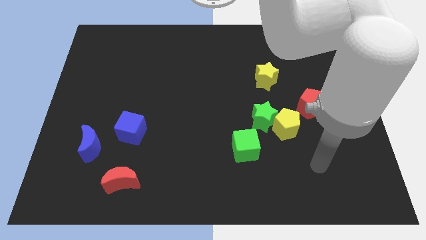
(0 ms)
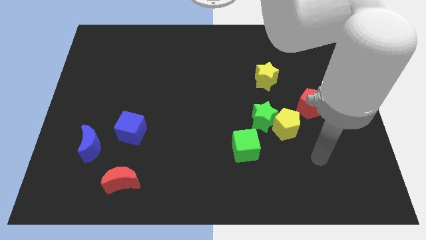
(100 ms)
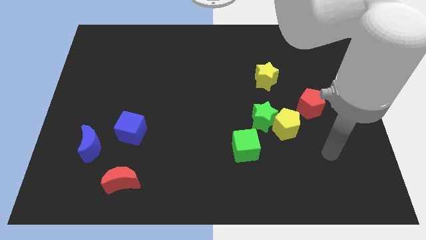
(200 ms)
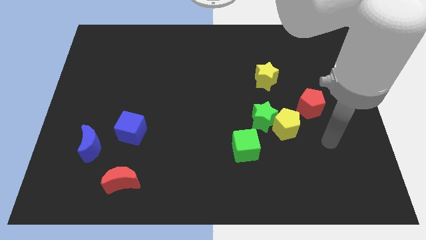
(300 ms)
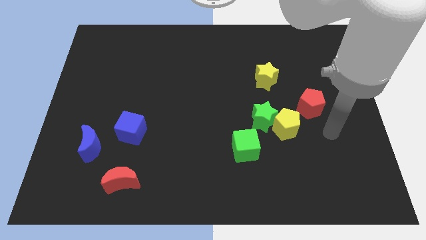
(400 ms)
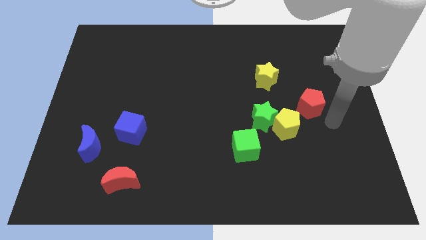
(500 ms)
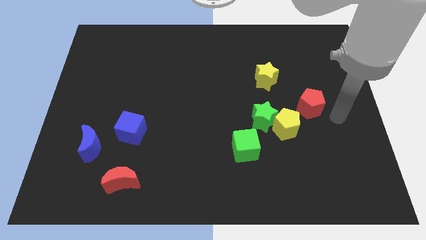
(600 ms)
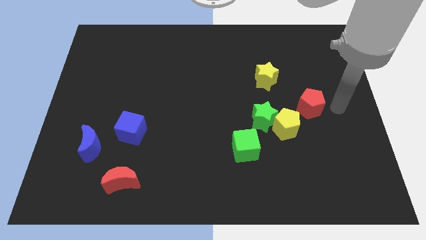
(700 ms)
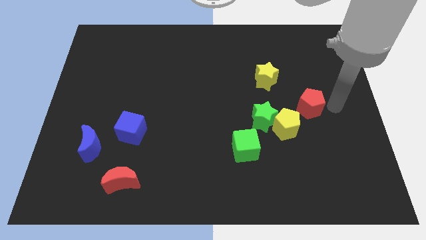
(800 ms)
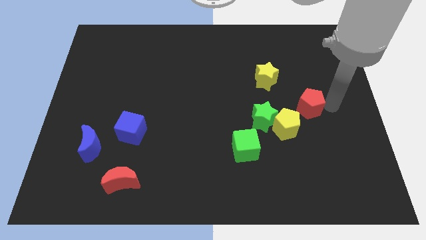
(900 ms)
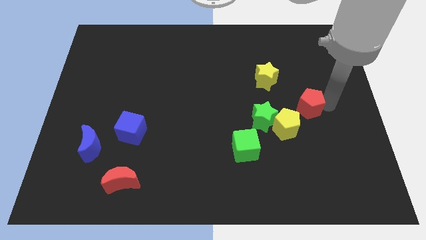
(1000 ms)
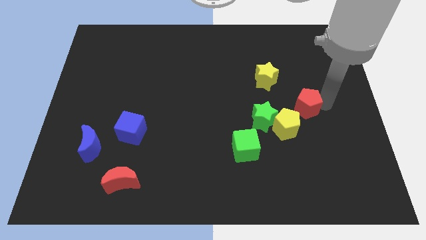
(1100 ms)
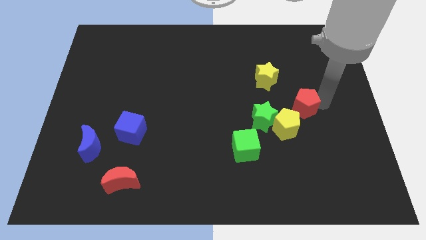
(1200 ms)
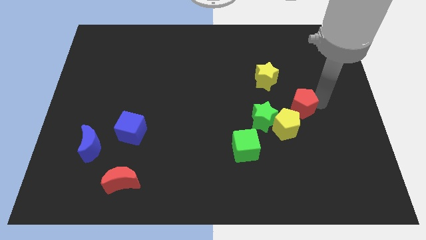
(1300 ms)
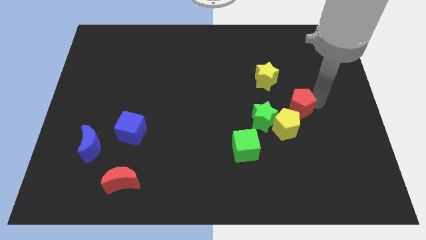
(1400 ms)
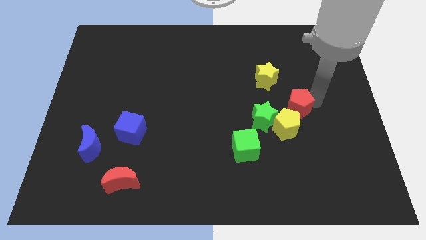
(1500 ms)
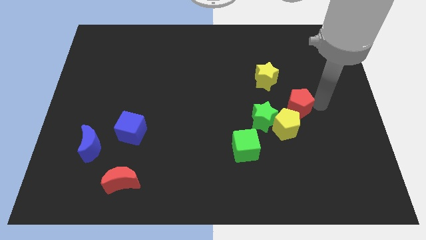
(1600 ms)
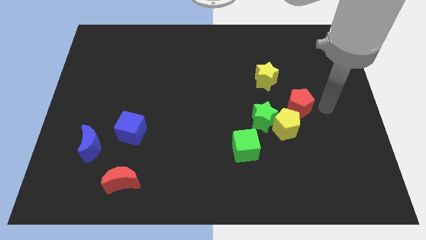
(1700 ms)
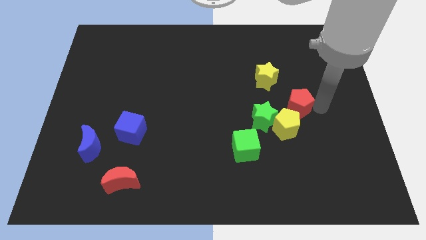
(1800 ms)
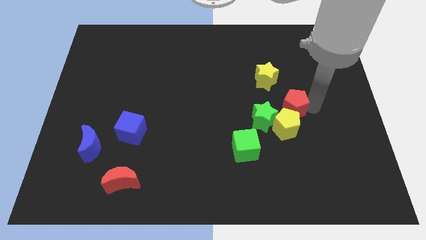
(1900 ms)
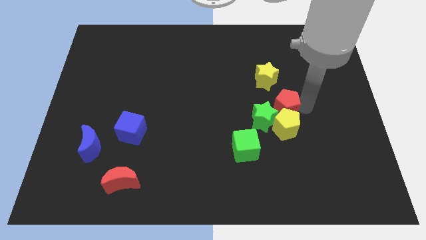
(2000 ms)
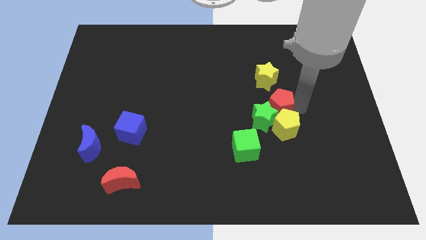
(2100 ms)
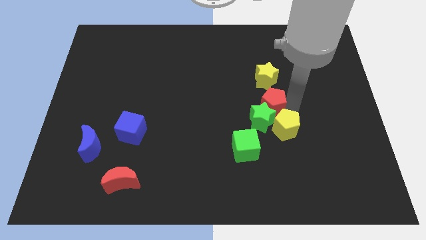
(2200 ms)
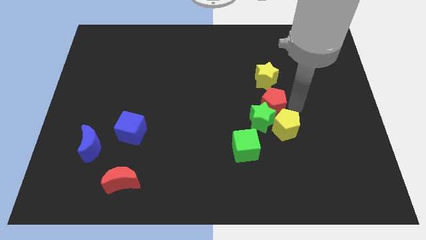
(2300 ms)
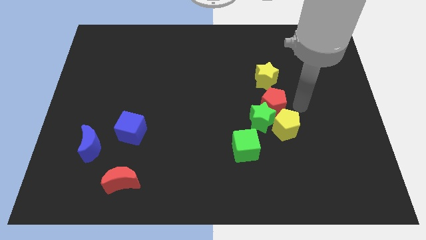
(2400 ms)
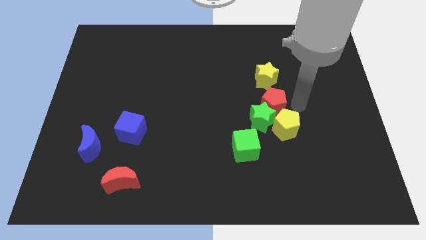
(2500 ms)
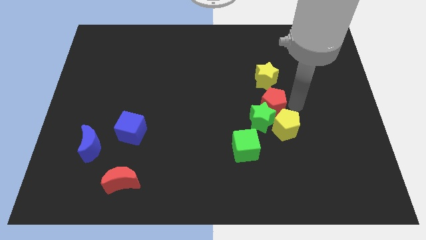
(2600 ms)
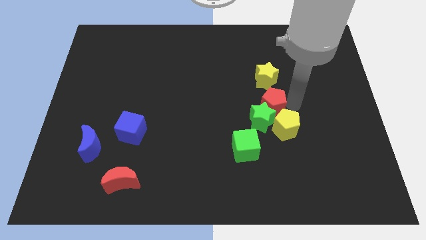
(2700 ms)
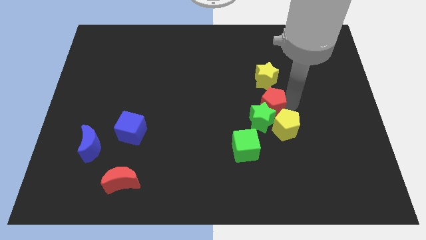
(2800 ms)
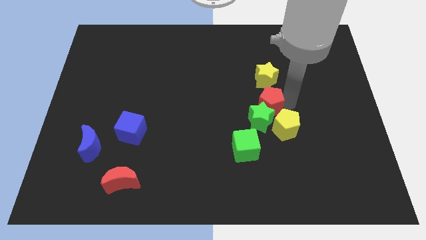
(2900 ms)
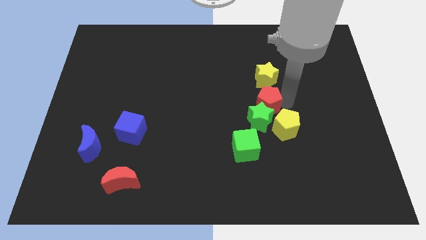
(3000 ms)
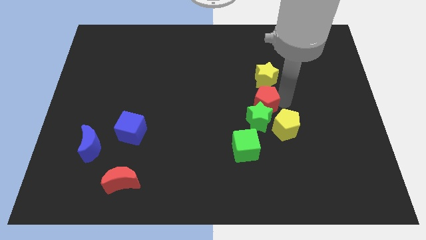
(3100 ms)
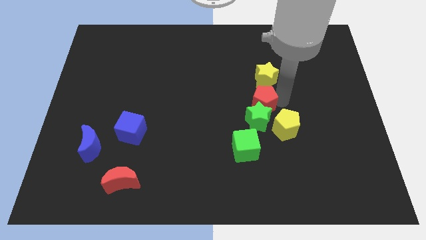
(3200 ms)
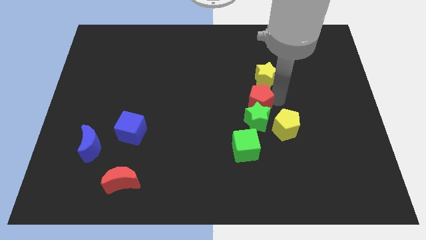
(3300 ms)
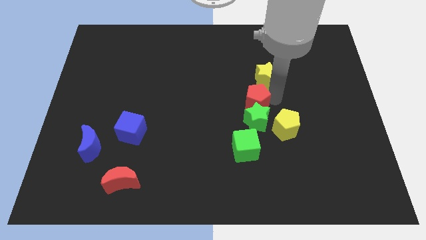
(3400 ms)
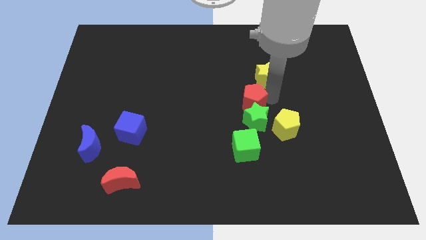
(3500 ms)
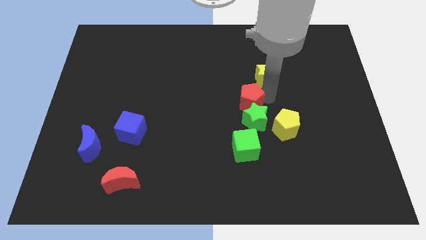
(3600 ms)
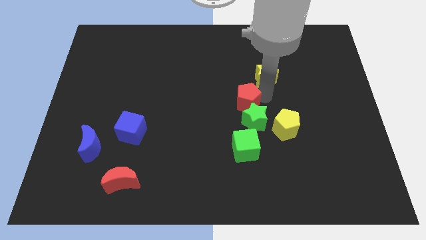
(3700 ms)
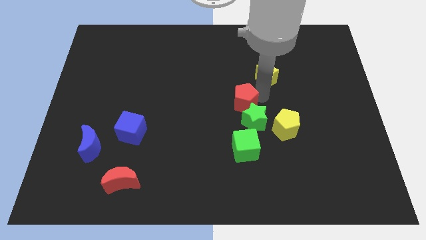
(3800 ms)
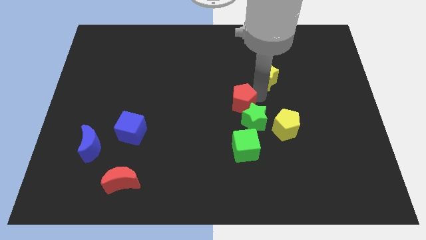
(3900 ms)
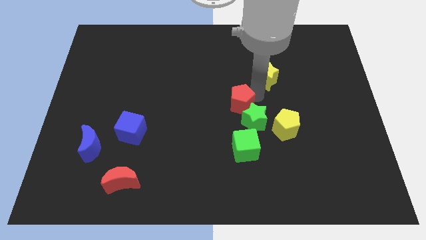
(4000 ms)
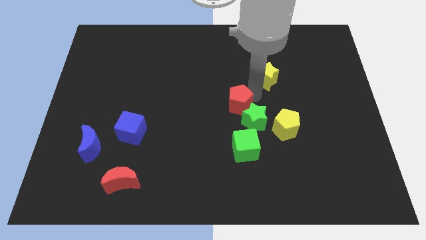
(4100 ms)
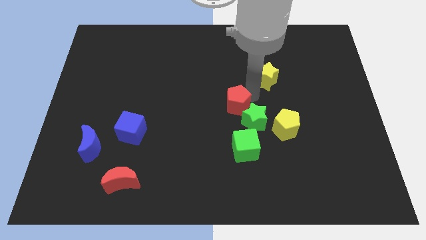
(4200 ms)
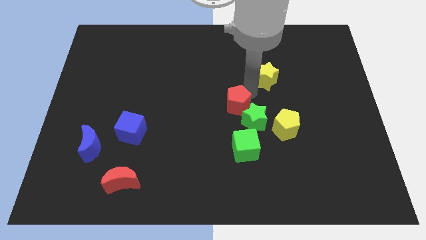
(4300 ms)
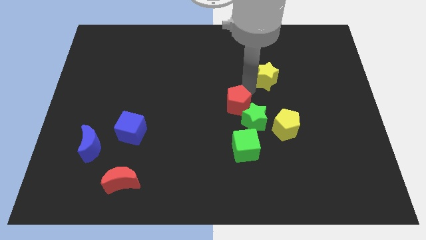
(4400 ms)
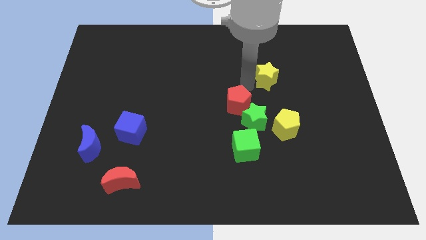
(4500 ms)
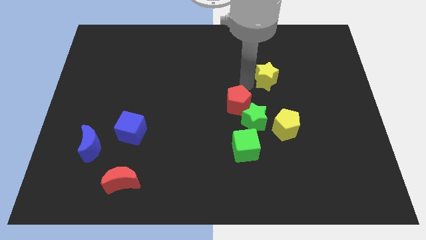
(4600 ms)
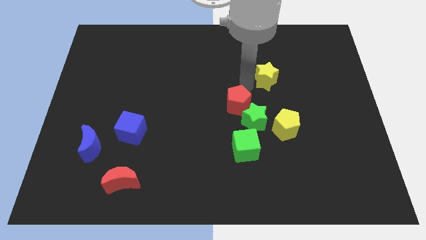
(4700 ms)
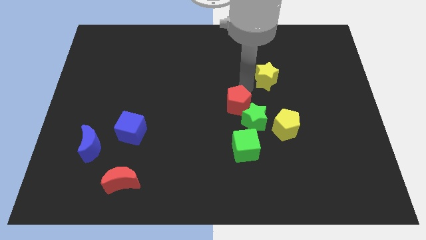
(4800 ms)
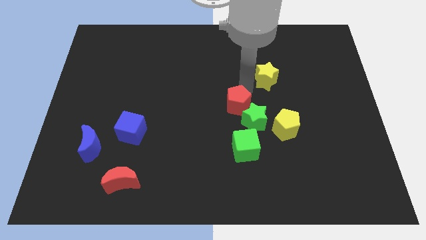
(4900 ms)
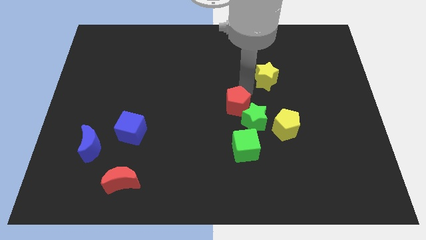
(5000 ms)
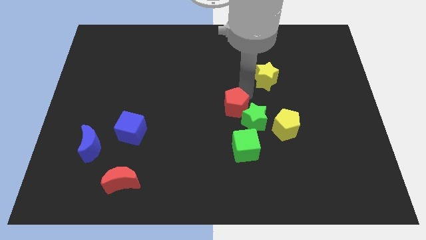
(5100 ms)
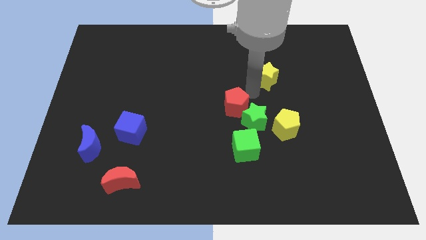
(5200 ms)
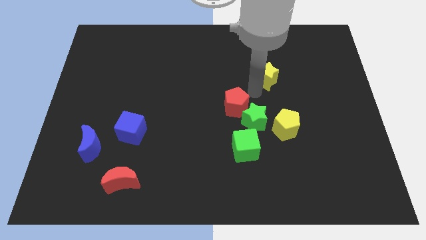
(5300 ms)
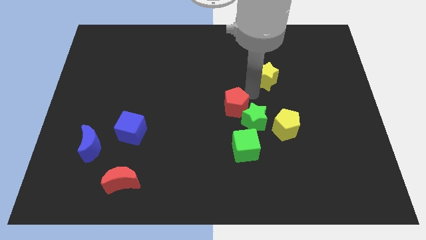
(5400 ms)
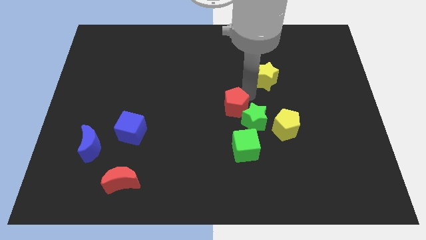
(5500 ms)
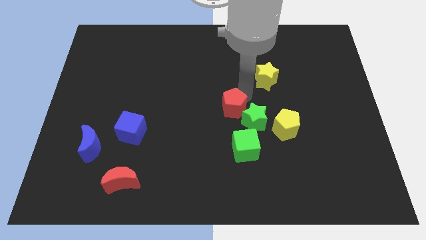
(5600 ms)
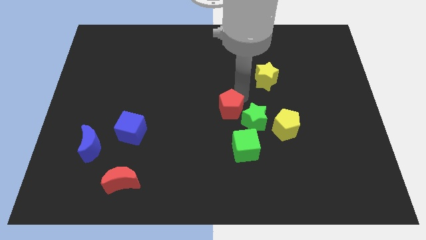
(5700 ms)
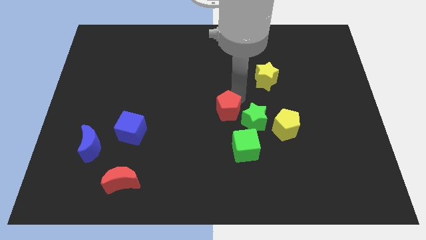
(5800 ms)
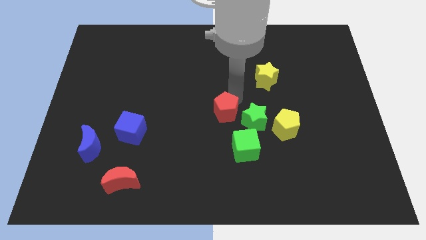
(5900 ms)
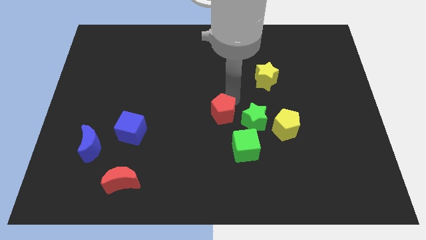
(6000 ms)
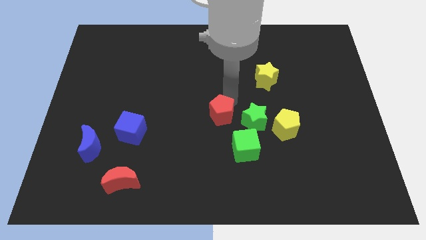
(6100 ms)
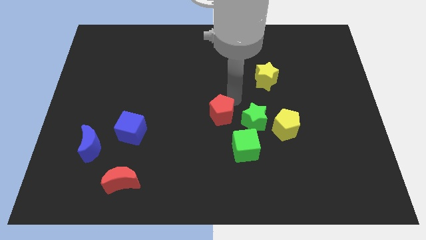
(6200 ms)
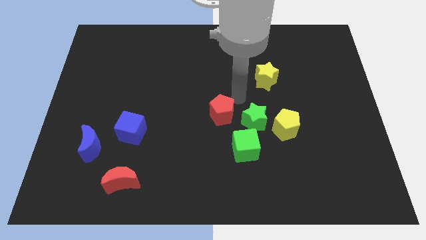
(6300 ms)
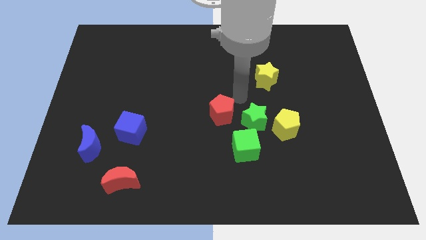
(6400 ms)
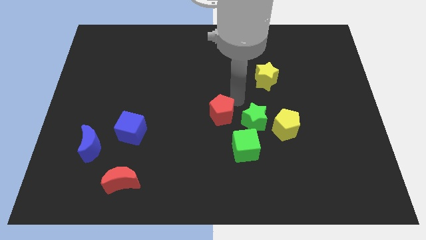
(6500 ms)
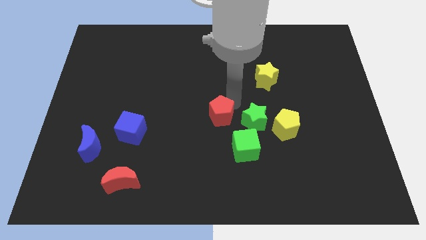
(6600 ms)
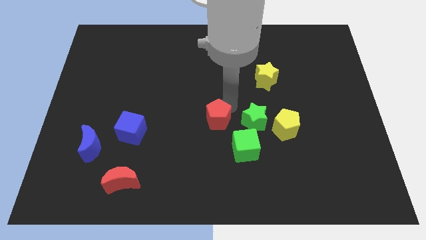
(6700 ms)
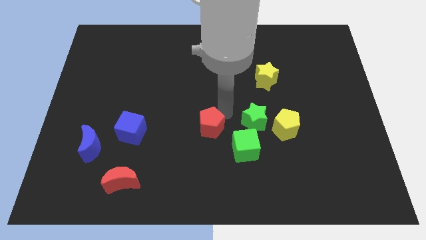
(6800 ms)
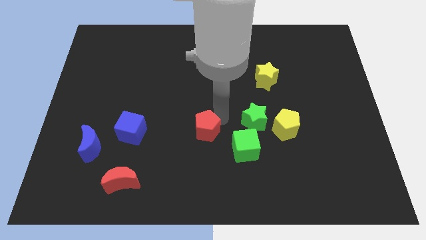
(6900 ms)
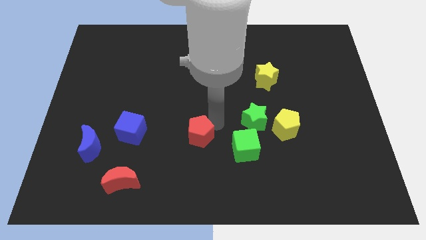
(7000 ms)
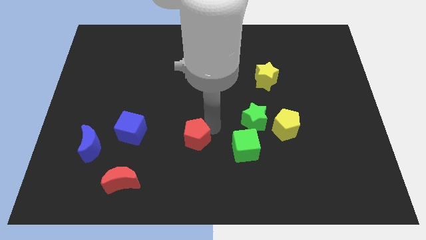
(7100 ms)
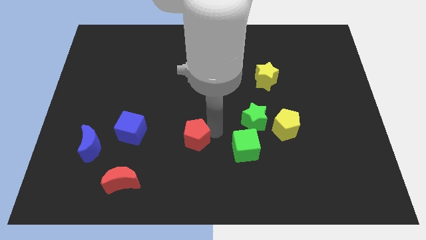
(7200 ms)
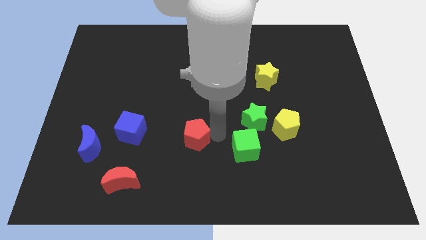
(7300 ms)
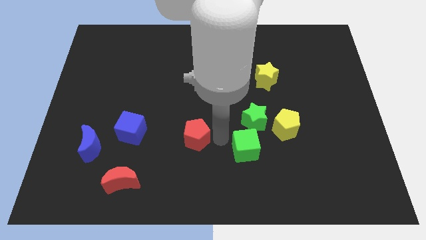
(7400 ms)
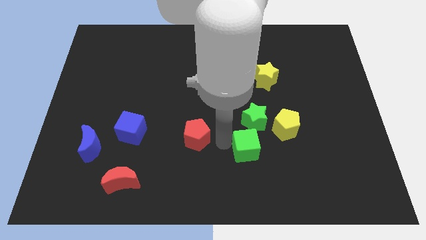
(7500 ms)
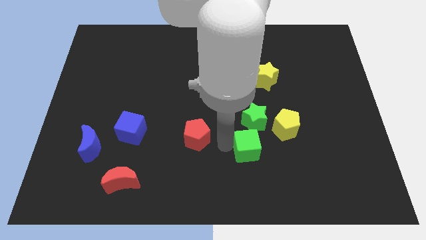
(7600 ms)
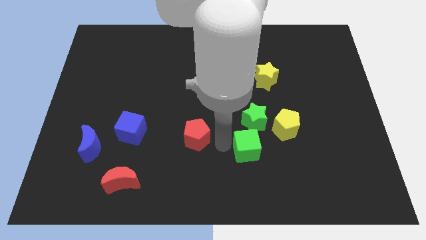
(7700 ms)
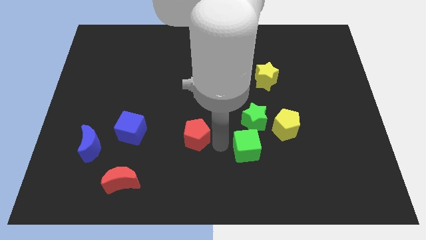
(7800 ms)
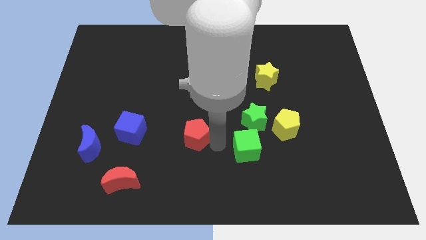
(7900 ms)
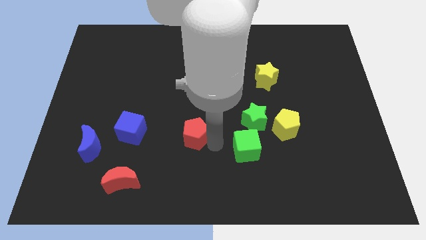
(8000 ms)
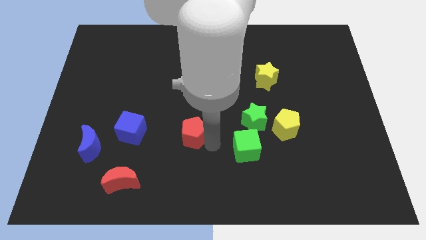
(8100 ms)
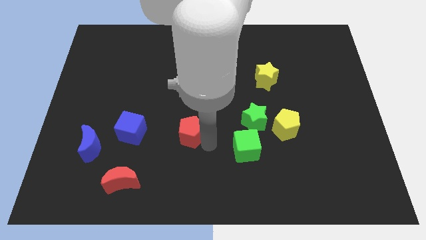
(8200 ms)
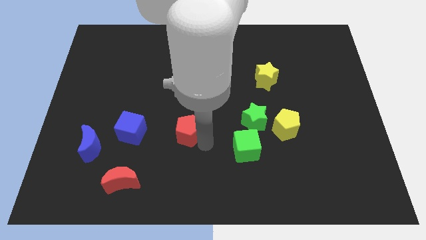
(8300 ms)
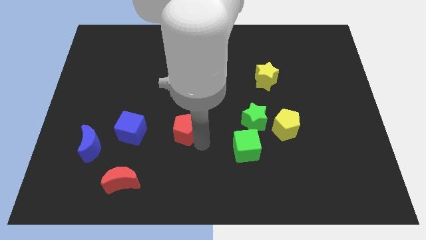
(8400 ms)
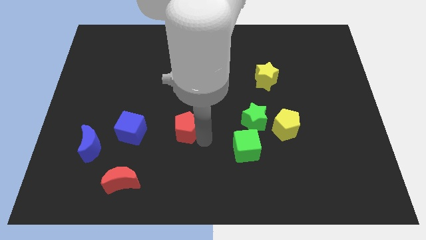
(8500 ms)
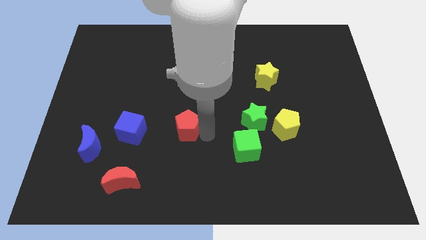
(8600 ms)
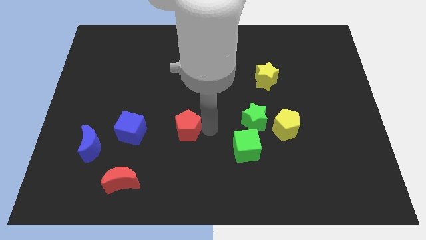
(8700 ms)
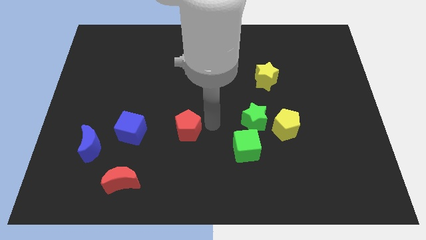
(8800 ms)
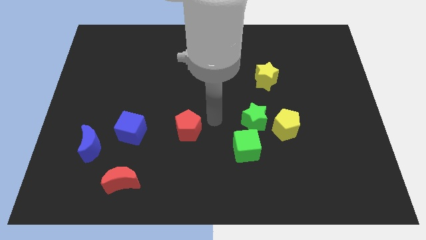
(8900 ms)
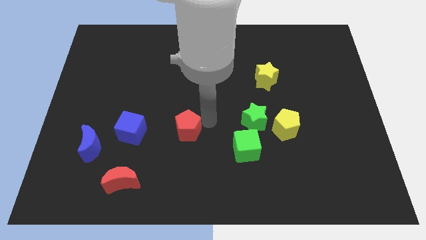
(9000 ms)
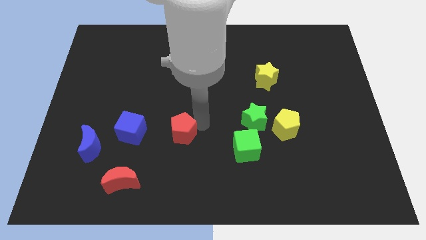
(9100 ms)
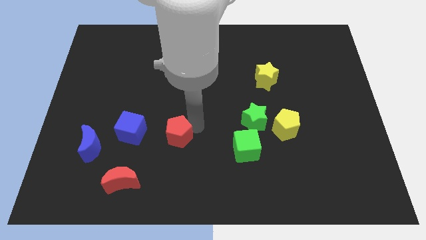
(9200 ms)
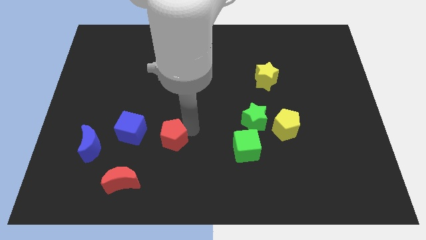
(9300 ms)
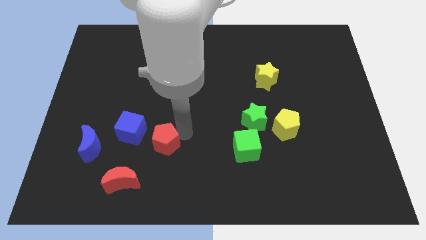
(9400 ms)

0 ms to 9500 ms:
put the red pentagon just right of the blue moon
